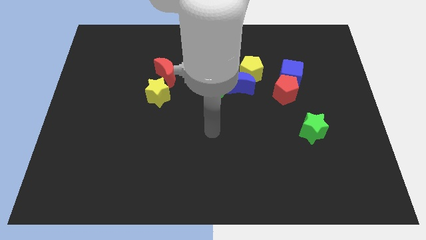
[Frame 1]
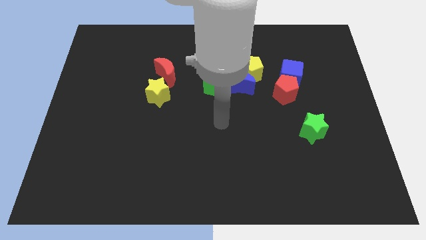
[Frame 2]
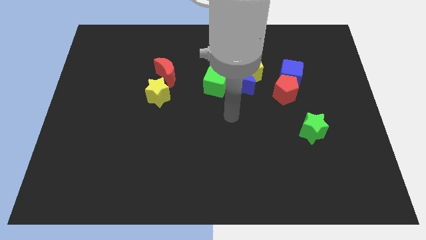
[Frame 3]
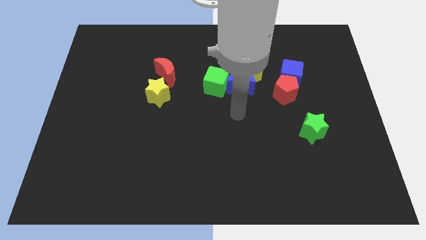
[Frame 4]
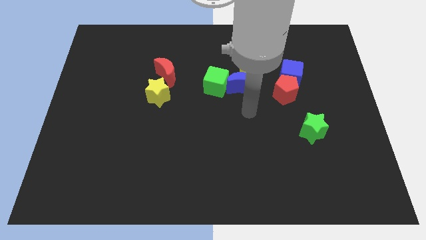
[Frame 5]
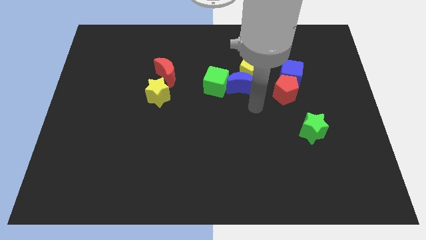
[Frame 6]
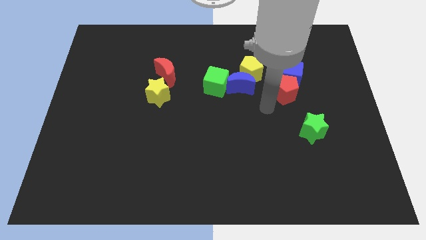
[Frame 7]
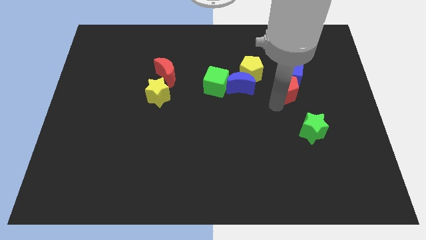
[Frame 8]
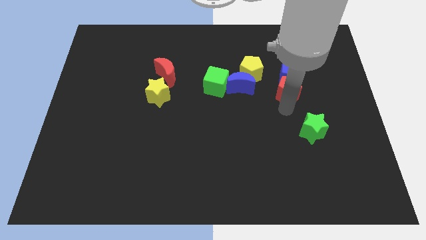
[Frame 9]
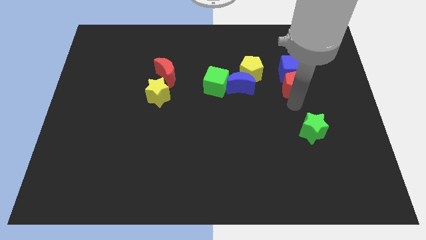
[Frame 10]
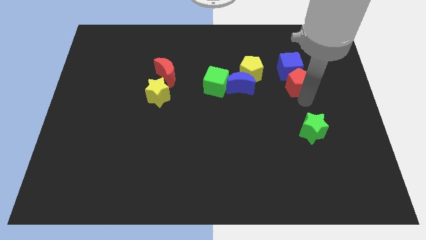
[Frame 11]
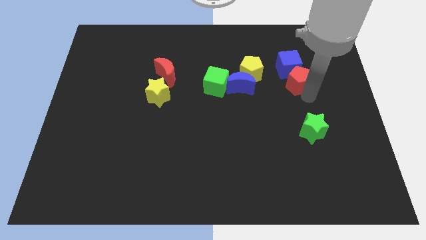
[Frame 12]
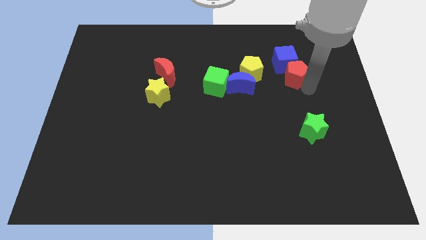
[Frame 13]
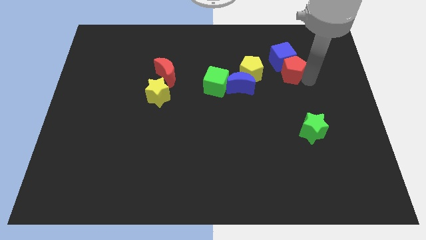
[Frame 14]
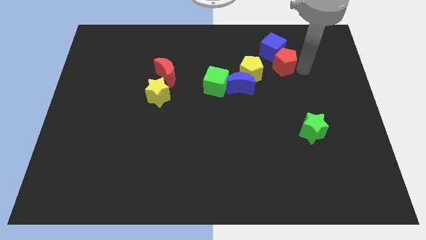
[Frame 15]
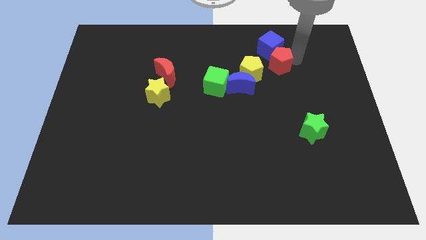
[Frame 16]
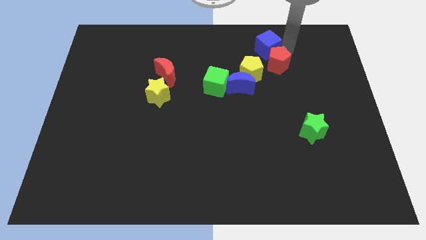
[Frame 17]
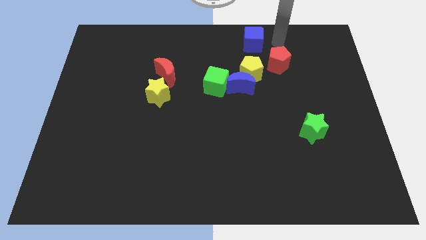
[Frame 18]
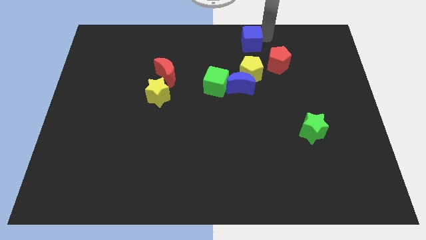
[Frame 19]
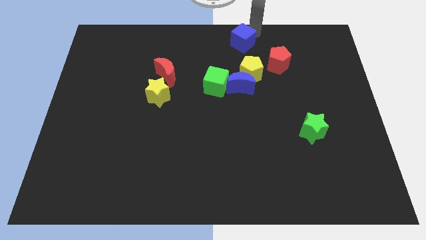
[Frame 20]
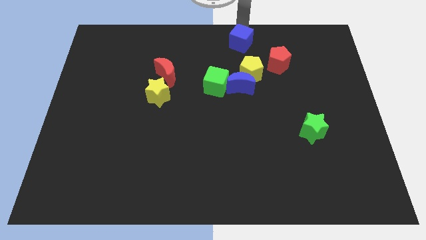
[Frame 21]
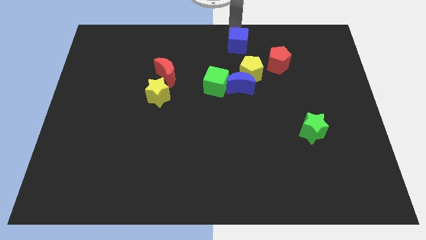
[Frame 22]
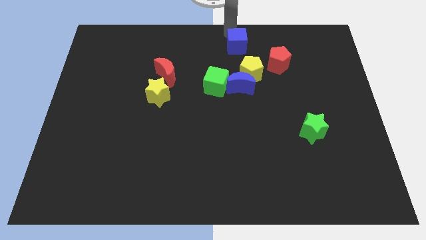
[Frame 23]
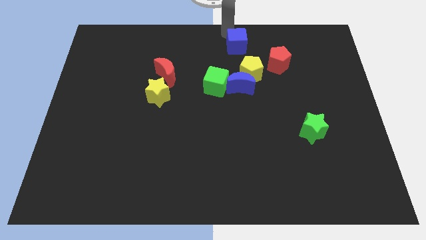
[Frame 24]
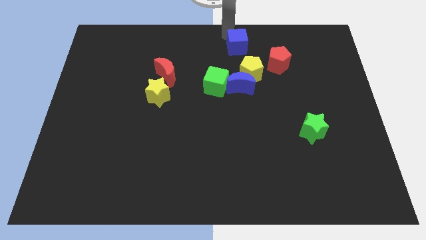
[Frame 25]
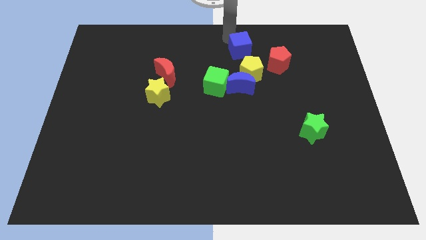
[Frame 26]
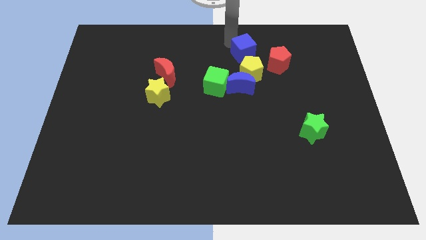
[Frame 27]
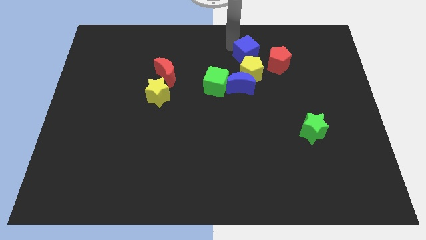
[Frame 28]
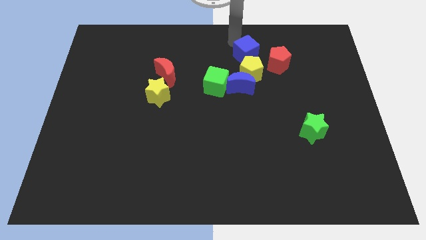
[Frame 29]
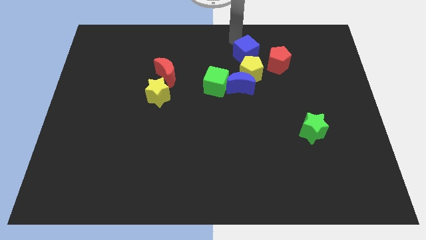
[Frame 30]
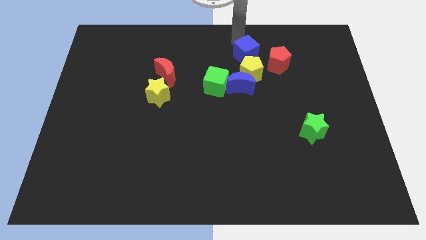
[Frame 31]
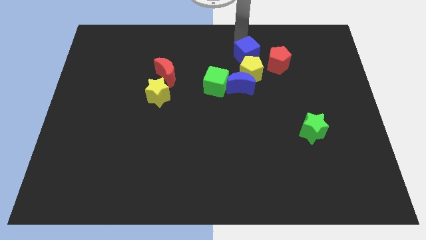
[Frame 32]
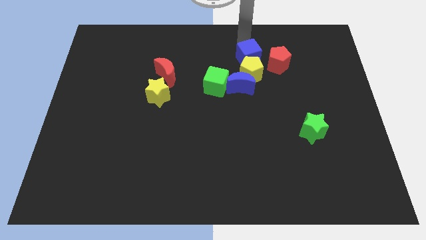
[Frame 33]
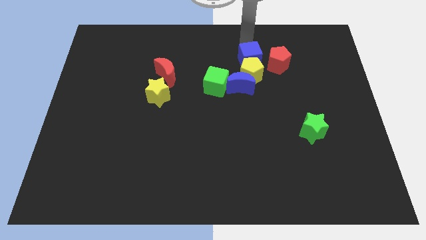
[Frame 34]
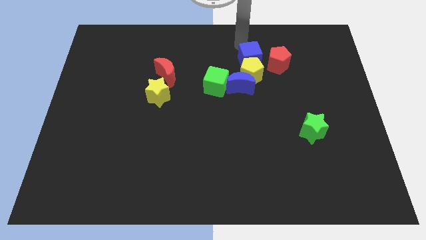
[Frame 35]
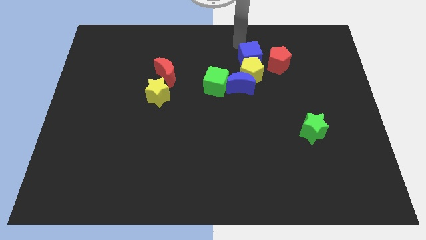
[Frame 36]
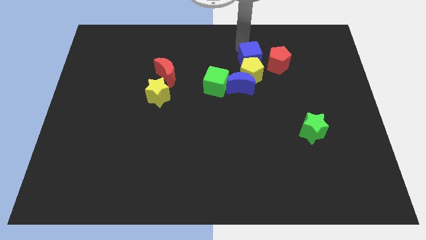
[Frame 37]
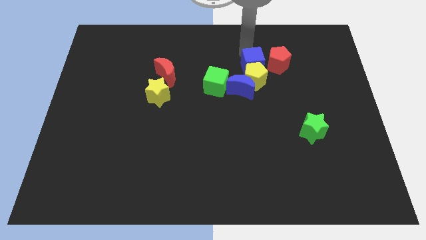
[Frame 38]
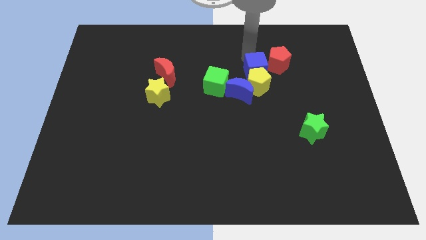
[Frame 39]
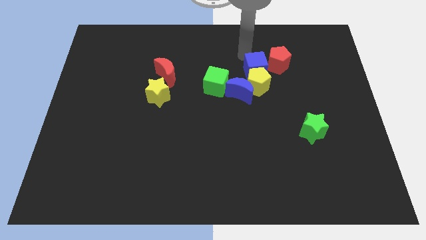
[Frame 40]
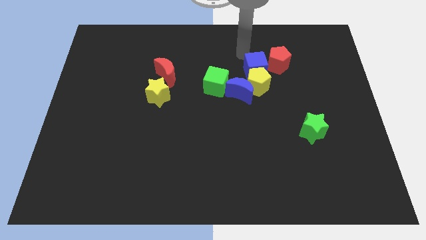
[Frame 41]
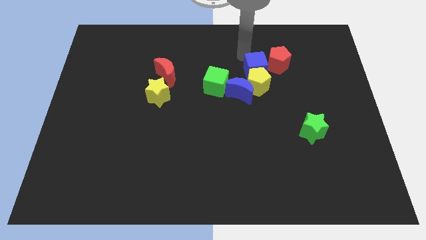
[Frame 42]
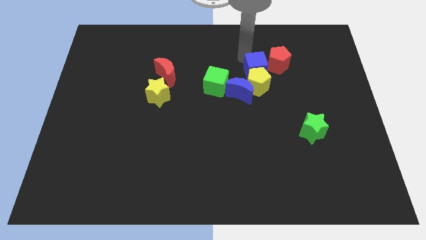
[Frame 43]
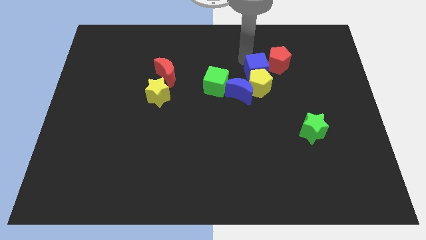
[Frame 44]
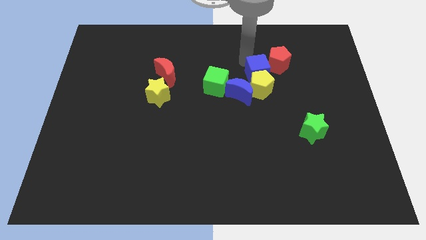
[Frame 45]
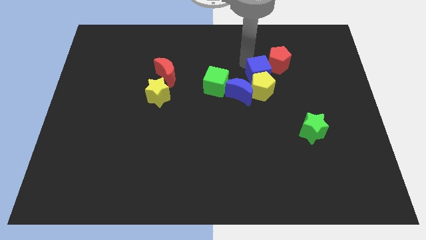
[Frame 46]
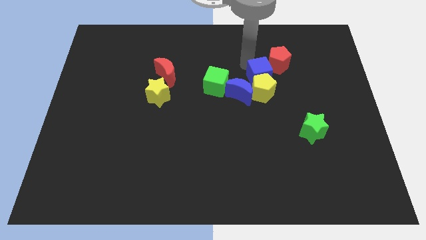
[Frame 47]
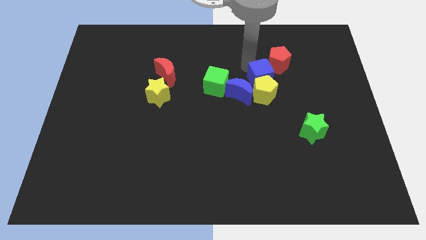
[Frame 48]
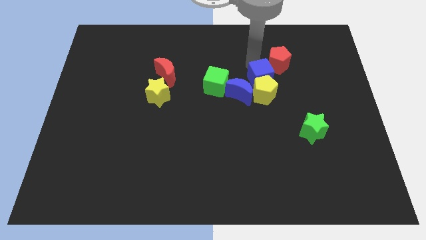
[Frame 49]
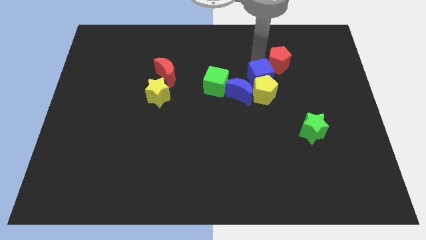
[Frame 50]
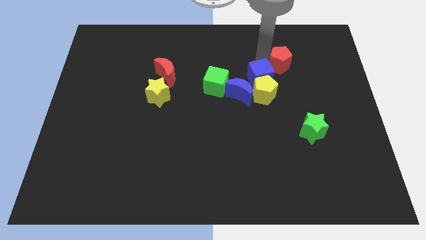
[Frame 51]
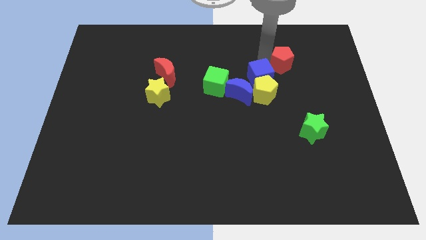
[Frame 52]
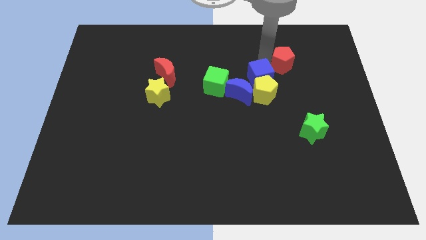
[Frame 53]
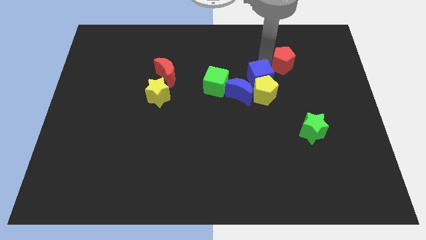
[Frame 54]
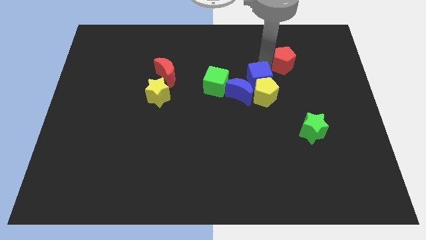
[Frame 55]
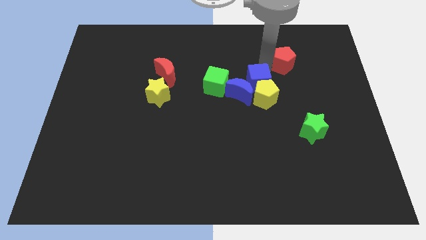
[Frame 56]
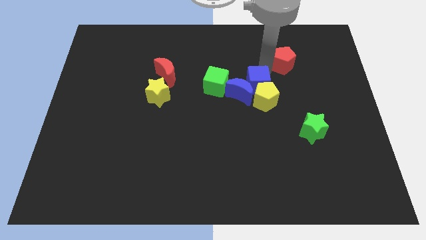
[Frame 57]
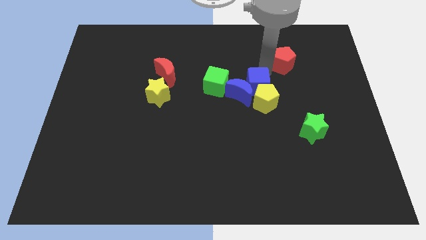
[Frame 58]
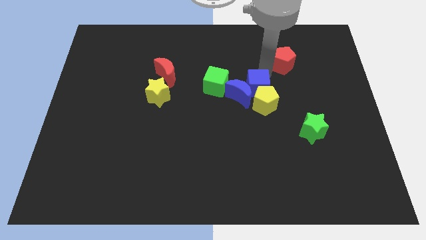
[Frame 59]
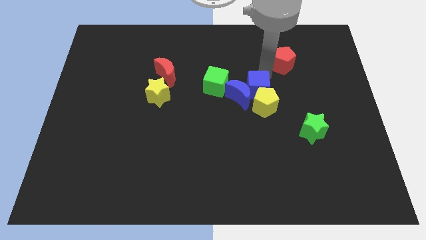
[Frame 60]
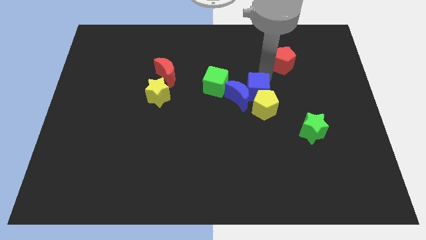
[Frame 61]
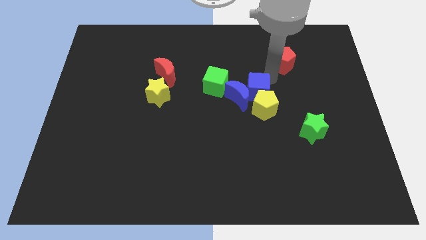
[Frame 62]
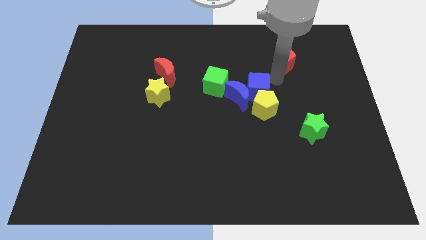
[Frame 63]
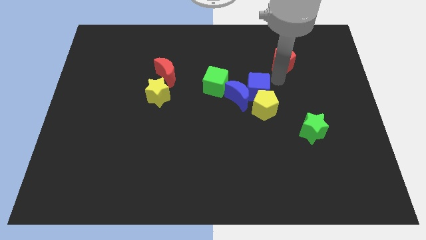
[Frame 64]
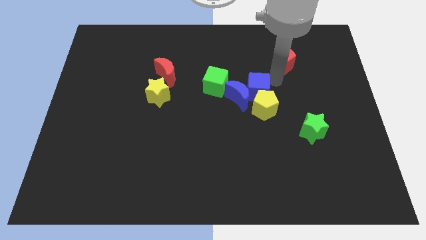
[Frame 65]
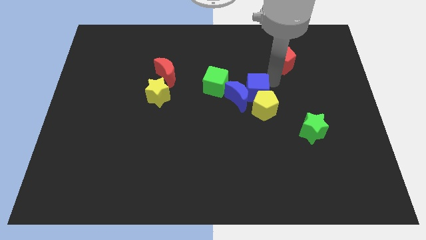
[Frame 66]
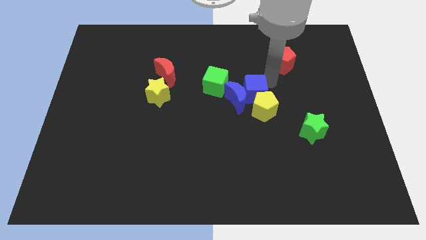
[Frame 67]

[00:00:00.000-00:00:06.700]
slide the blue cube to the bottom right side of the green cube

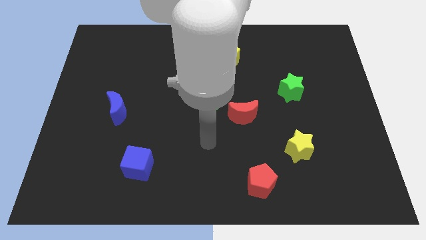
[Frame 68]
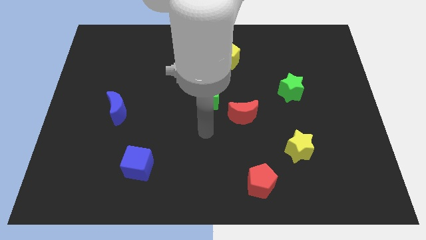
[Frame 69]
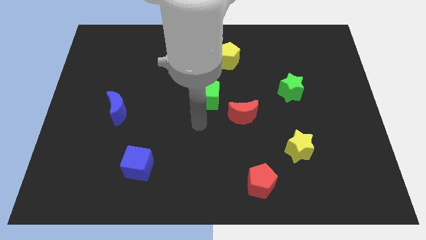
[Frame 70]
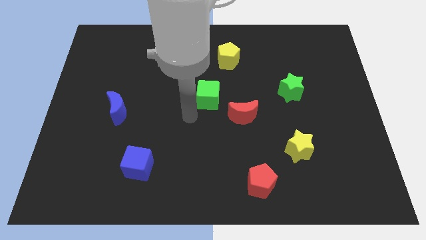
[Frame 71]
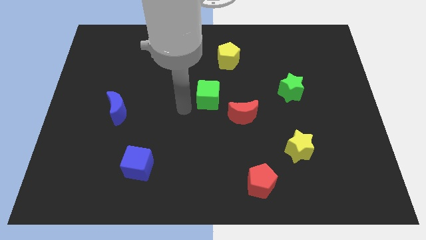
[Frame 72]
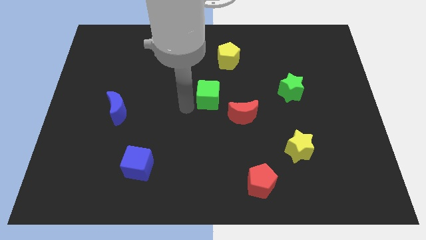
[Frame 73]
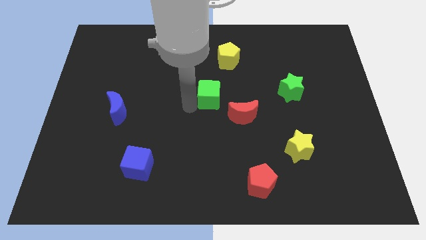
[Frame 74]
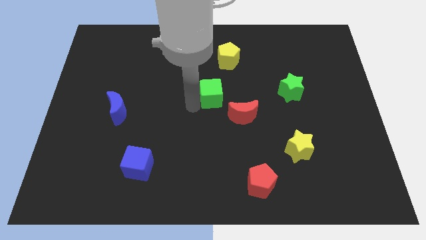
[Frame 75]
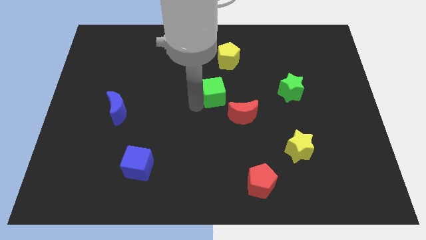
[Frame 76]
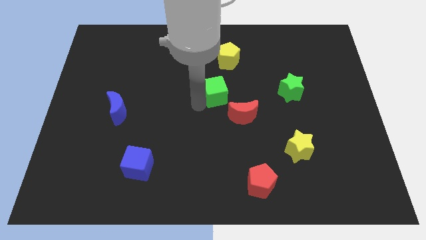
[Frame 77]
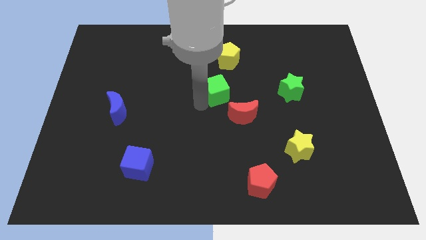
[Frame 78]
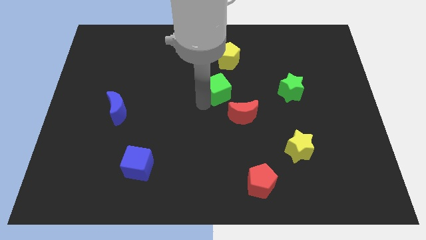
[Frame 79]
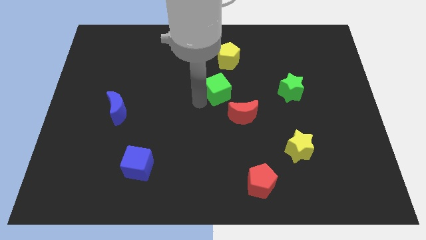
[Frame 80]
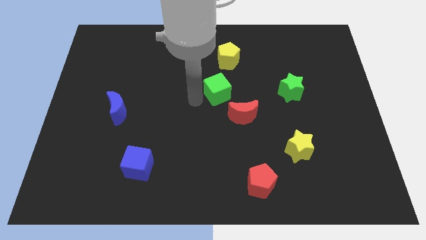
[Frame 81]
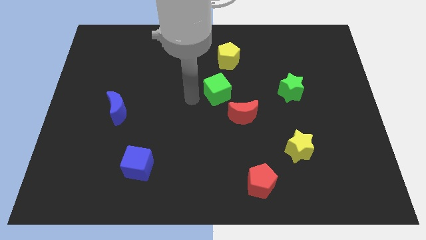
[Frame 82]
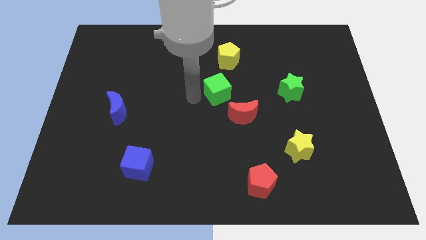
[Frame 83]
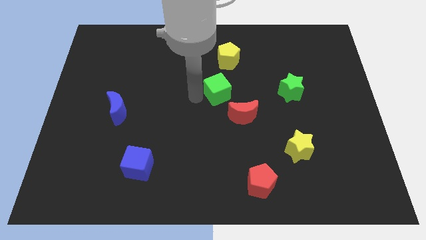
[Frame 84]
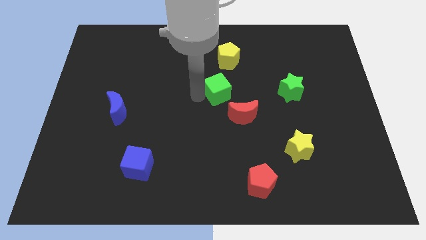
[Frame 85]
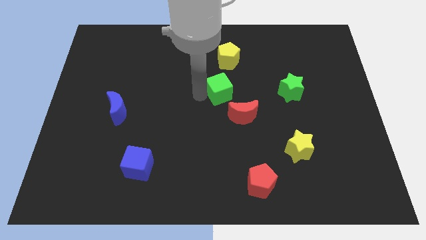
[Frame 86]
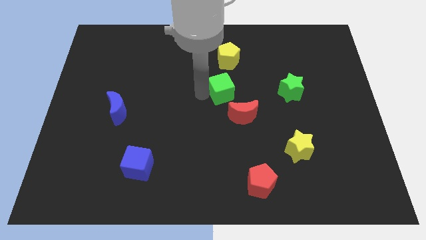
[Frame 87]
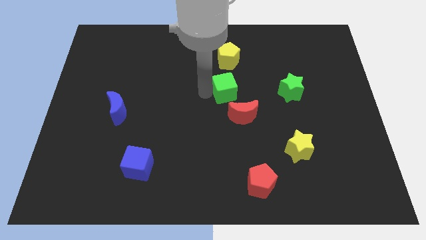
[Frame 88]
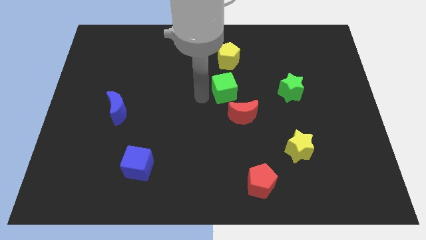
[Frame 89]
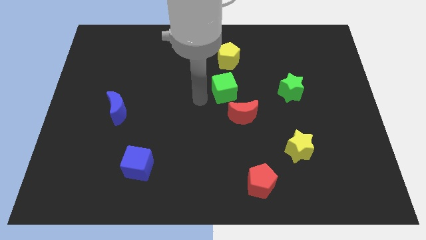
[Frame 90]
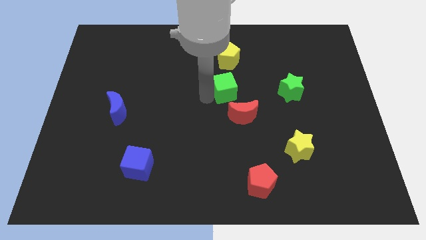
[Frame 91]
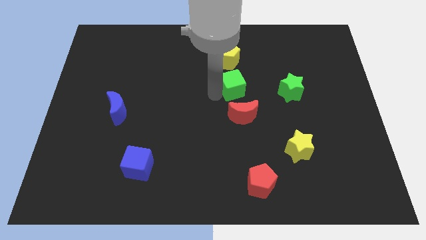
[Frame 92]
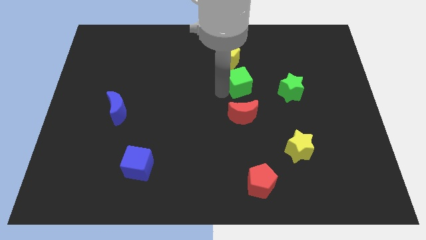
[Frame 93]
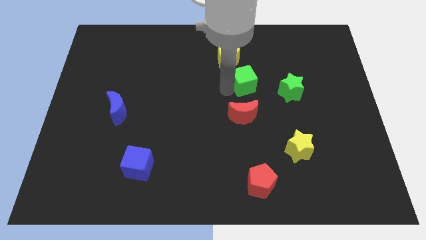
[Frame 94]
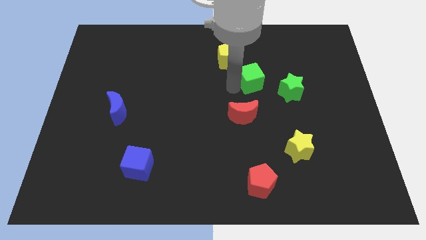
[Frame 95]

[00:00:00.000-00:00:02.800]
put the green cube diagonally up and to the left of the green star
